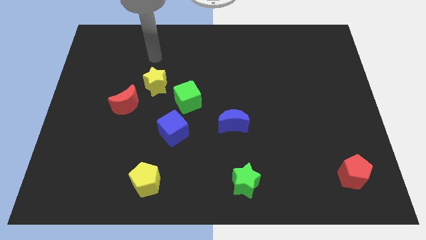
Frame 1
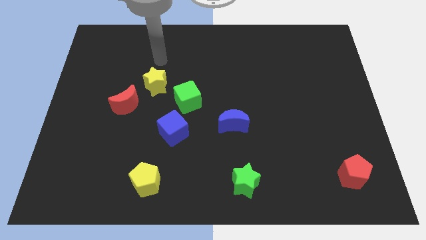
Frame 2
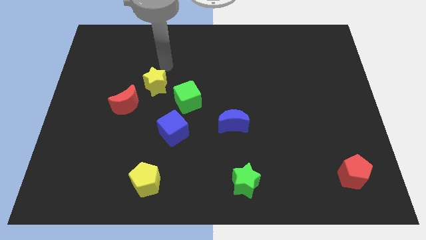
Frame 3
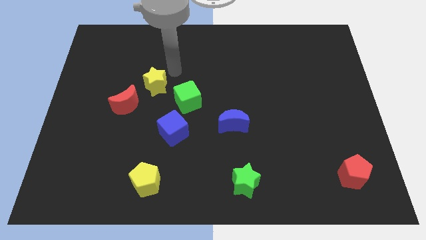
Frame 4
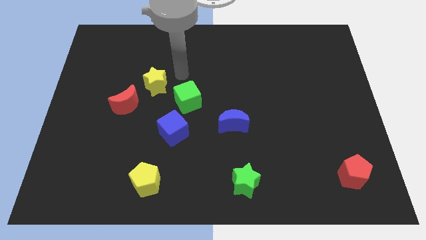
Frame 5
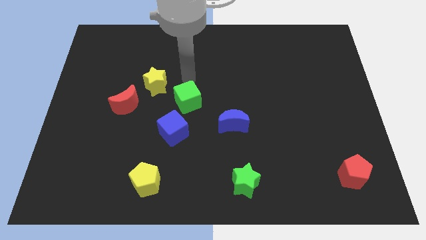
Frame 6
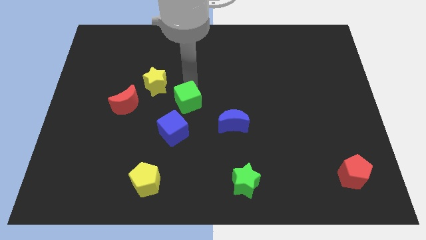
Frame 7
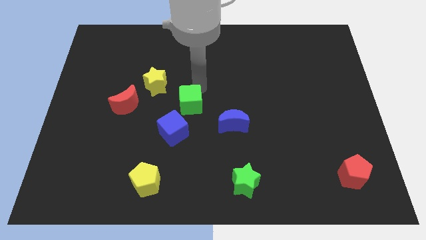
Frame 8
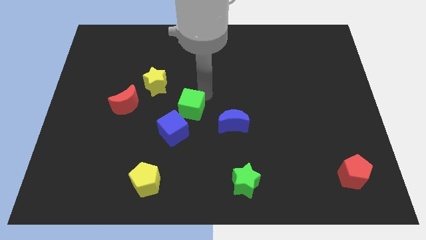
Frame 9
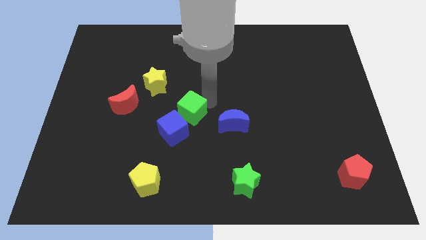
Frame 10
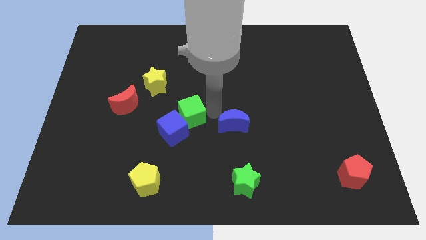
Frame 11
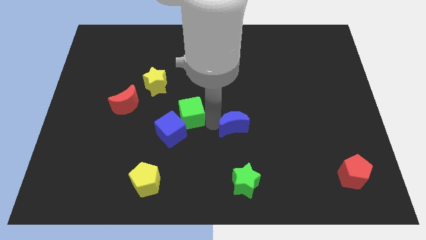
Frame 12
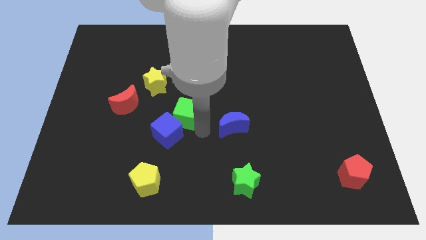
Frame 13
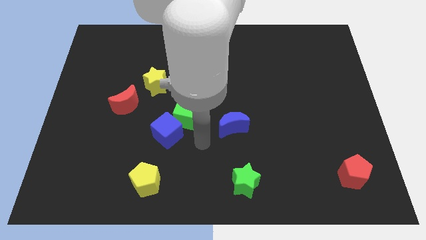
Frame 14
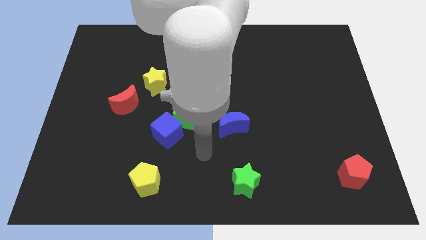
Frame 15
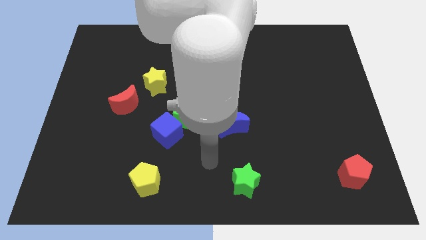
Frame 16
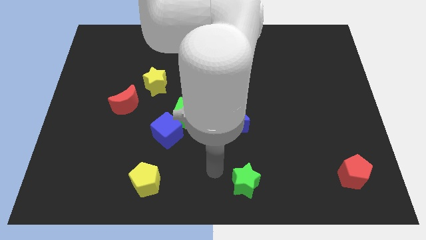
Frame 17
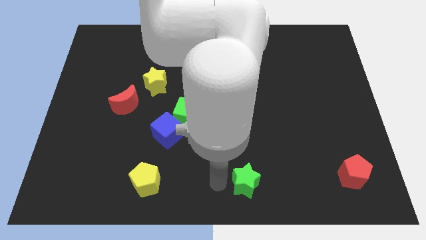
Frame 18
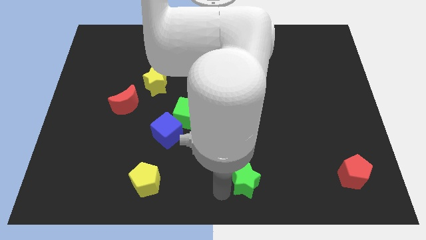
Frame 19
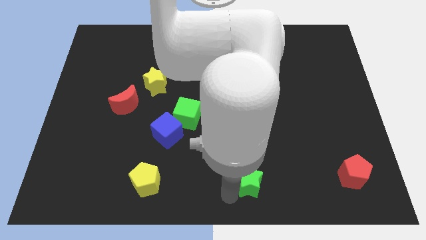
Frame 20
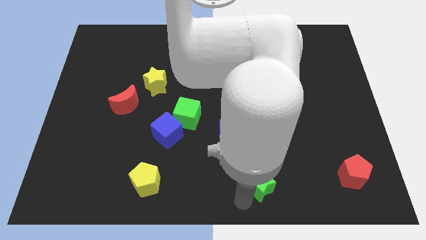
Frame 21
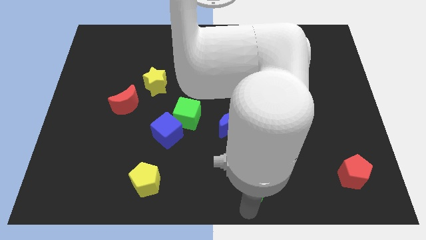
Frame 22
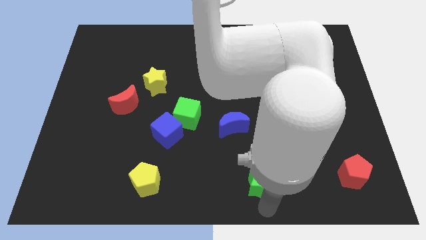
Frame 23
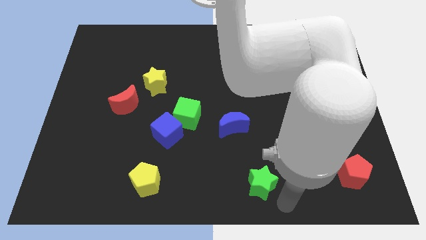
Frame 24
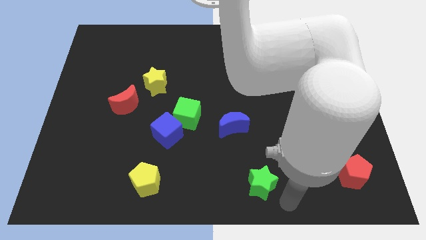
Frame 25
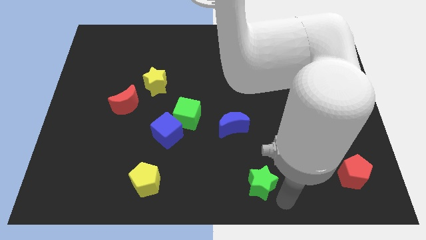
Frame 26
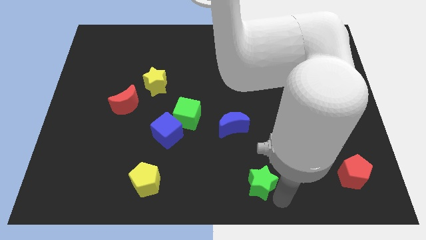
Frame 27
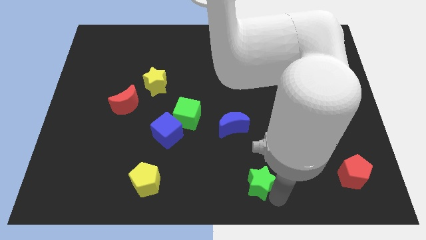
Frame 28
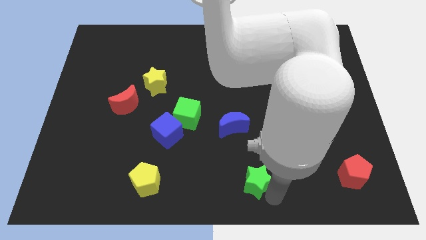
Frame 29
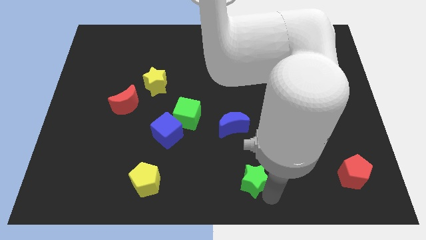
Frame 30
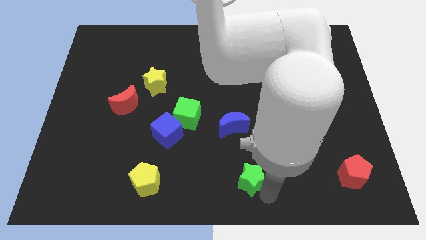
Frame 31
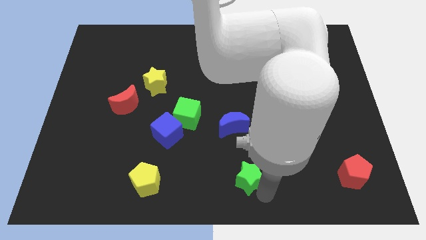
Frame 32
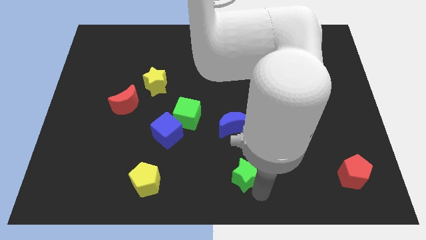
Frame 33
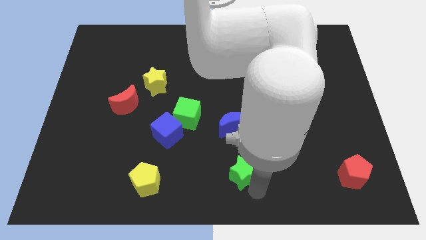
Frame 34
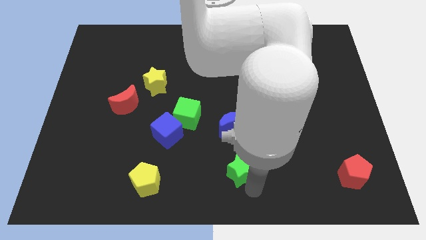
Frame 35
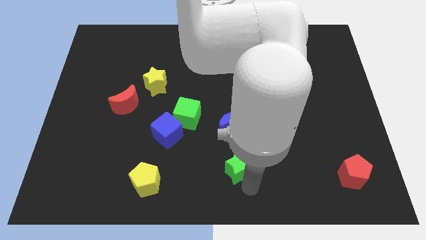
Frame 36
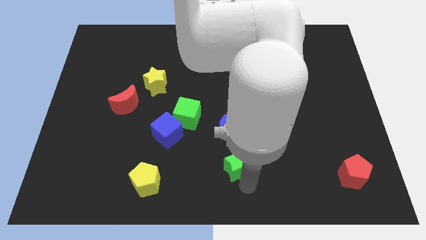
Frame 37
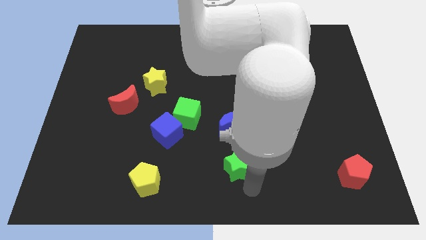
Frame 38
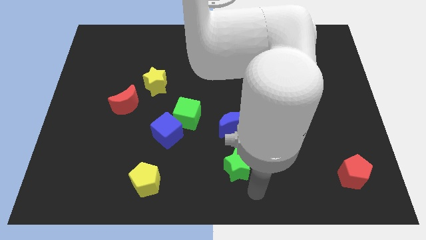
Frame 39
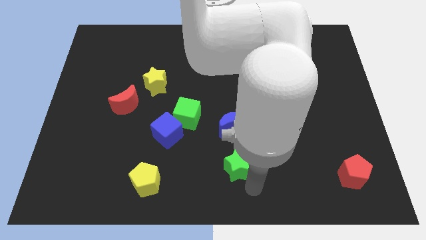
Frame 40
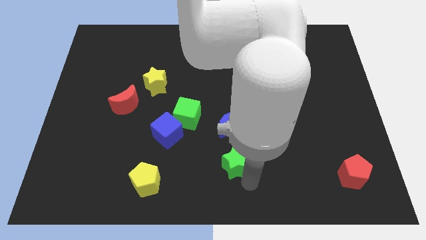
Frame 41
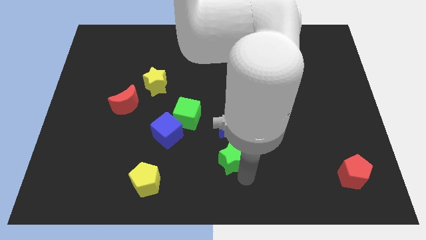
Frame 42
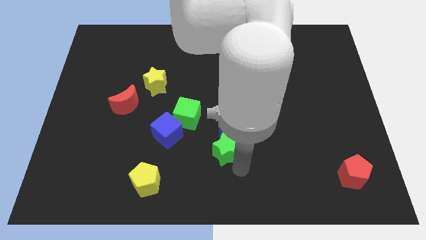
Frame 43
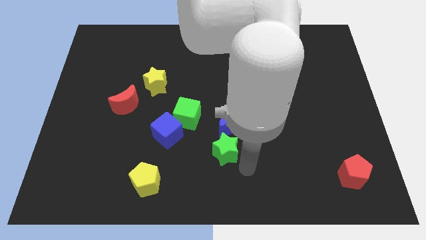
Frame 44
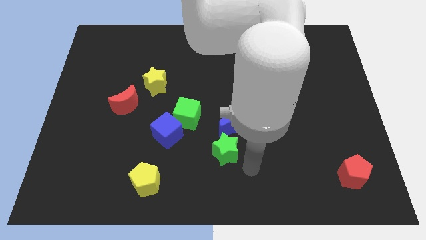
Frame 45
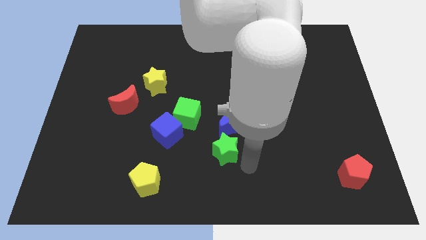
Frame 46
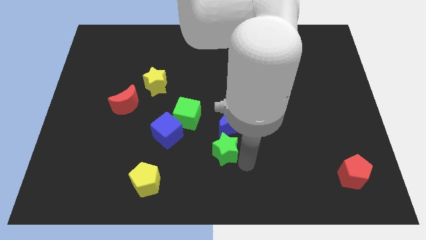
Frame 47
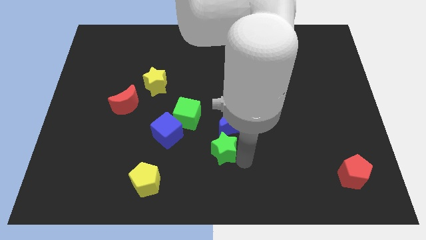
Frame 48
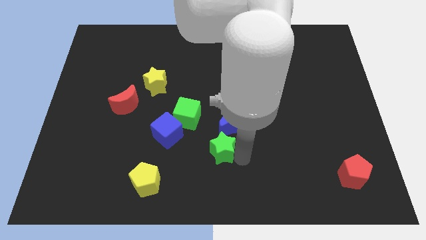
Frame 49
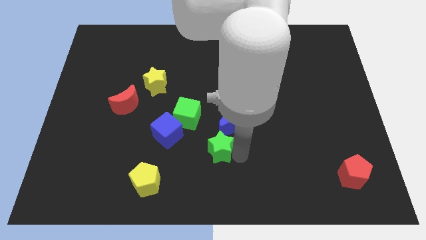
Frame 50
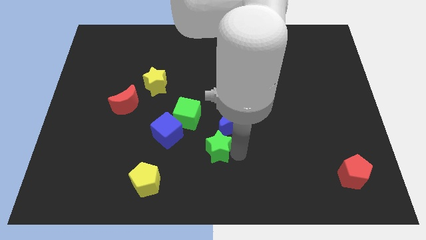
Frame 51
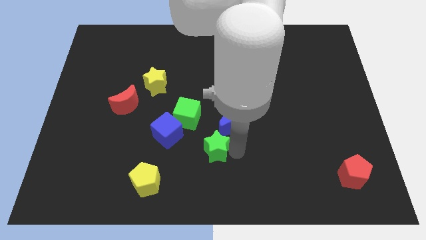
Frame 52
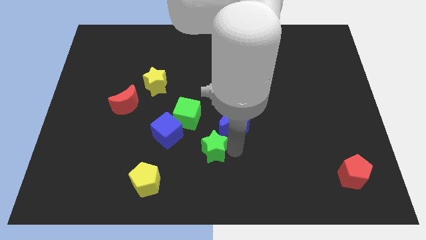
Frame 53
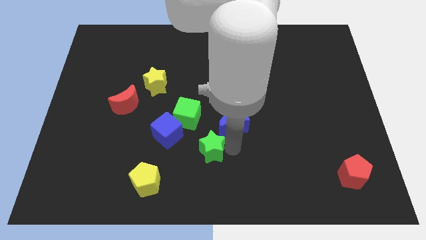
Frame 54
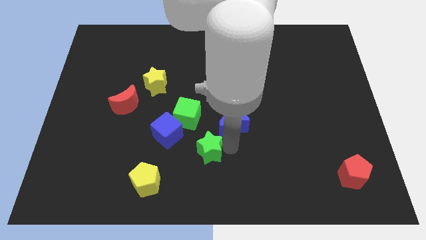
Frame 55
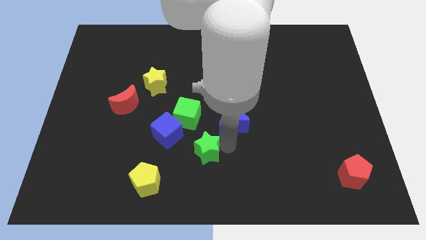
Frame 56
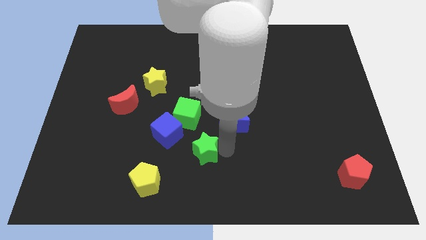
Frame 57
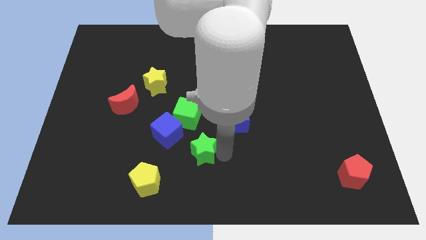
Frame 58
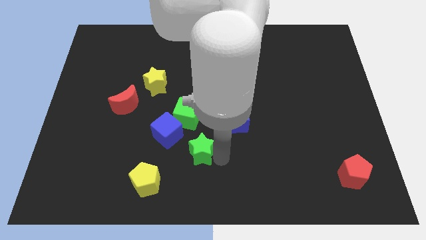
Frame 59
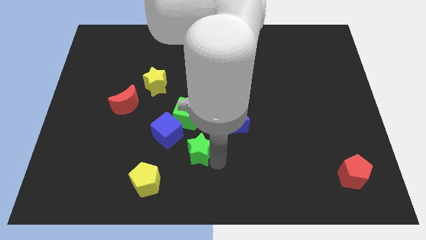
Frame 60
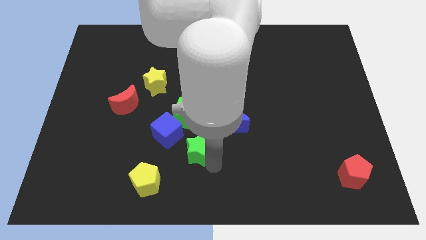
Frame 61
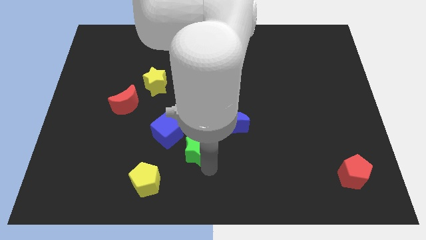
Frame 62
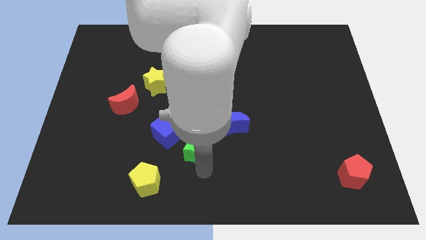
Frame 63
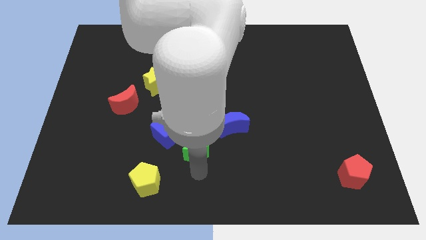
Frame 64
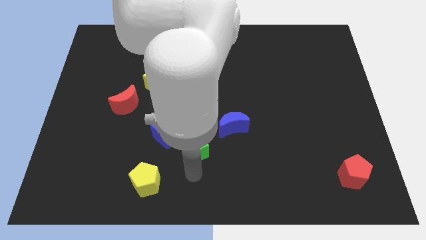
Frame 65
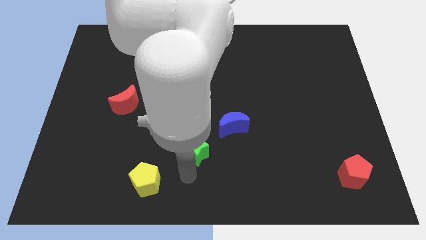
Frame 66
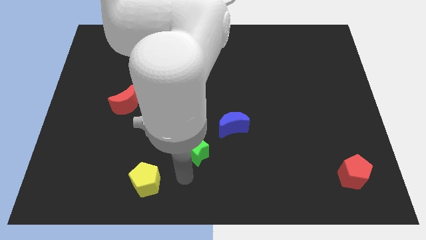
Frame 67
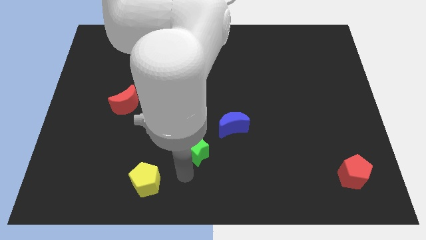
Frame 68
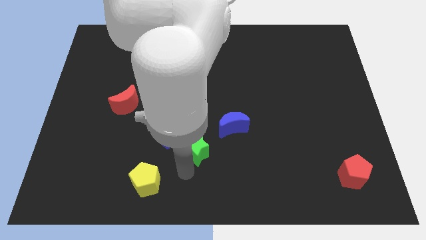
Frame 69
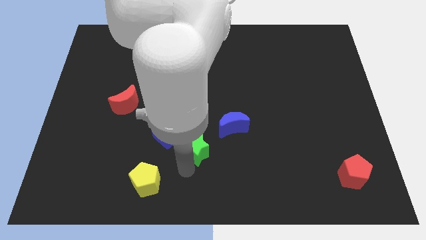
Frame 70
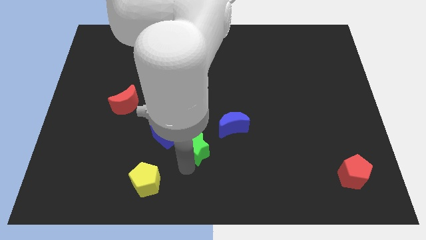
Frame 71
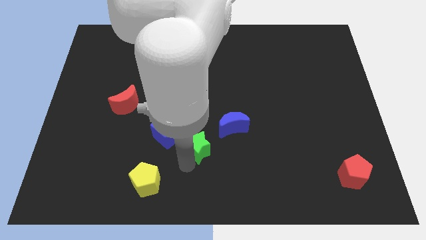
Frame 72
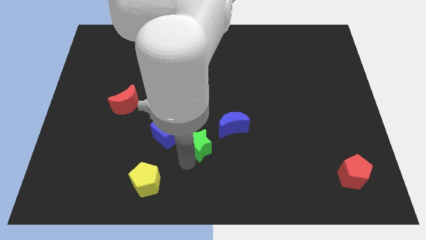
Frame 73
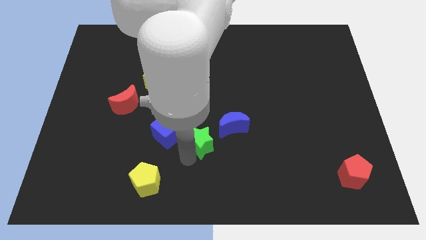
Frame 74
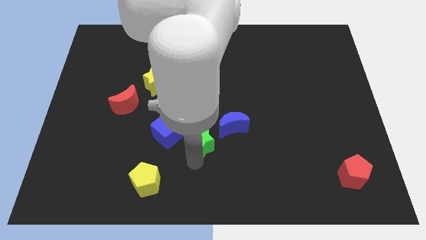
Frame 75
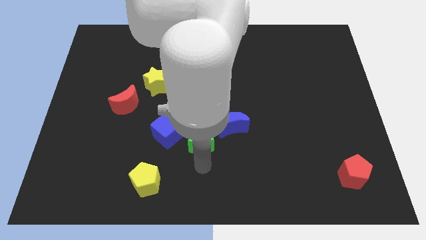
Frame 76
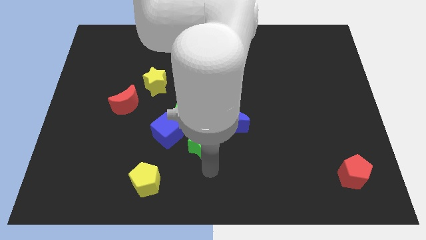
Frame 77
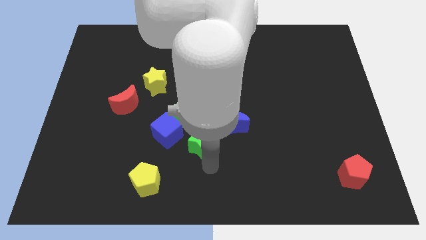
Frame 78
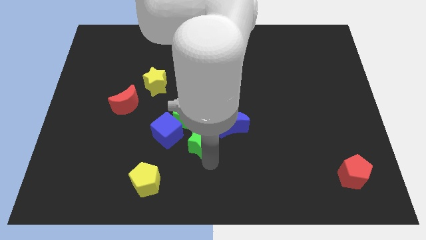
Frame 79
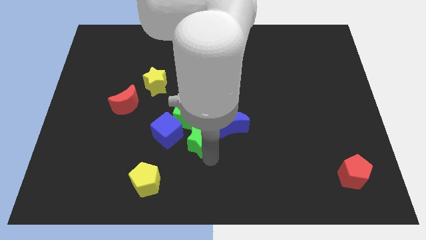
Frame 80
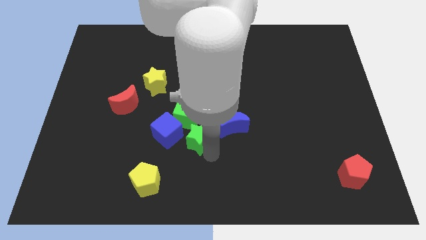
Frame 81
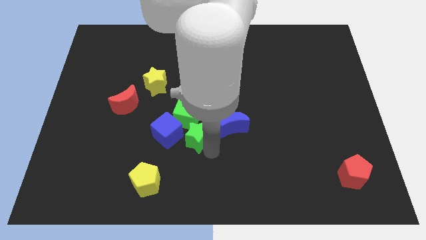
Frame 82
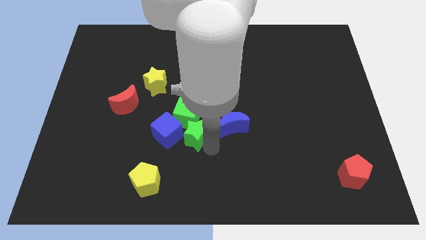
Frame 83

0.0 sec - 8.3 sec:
slide the green star towards the green cube
